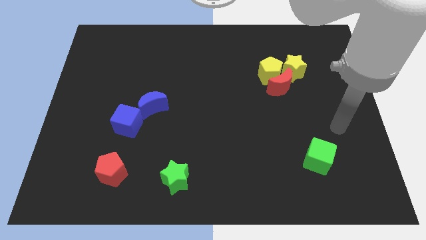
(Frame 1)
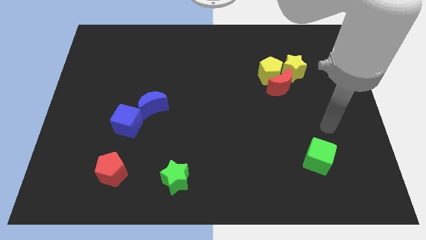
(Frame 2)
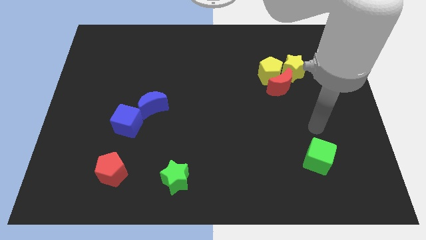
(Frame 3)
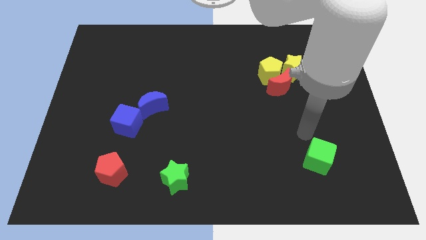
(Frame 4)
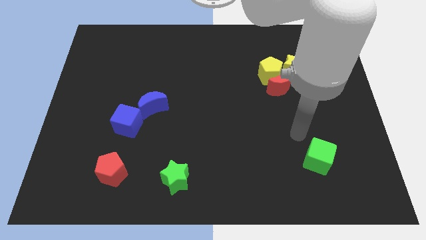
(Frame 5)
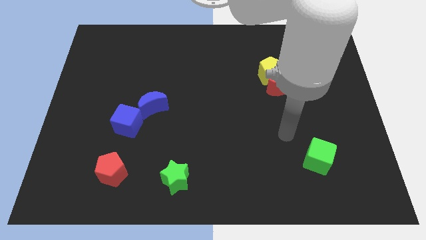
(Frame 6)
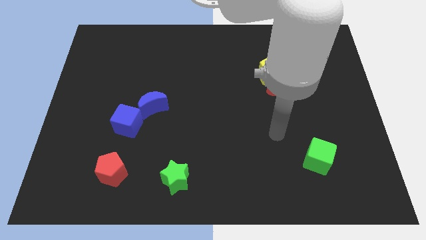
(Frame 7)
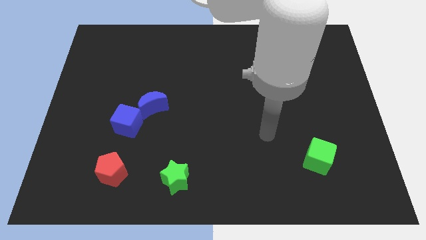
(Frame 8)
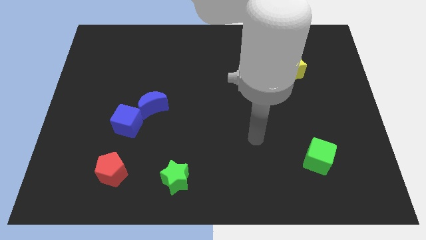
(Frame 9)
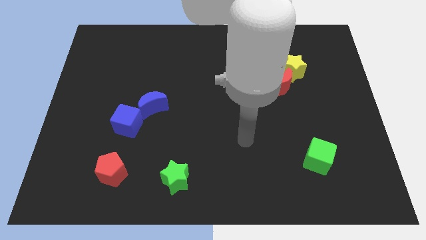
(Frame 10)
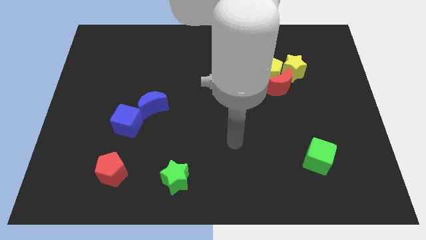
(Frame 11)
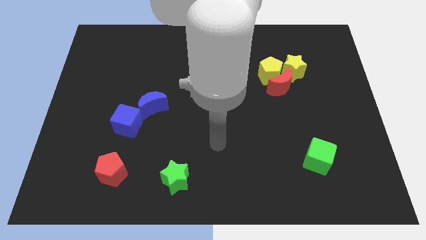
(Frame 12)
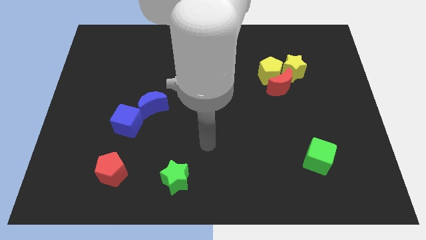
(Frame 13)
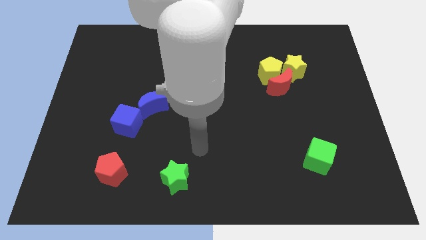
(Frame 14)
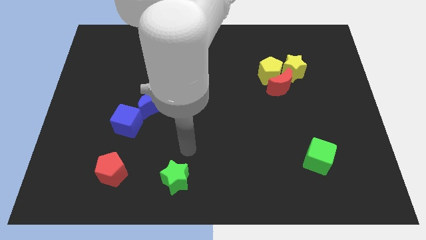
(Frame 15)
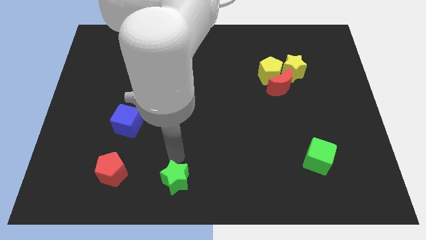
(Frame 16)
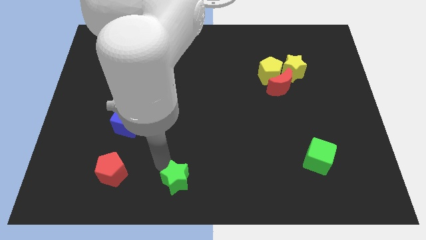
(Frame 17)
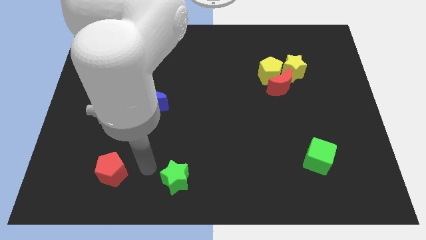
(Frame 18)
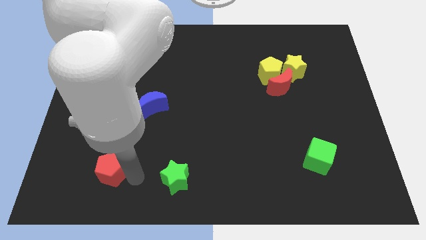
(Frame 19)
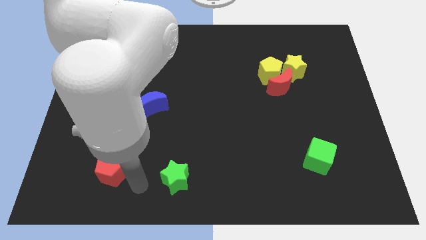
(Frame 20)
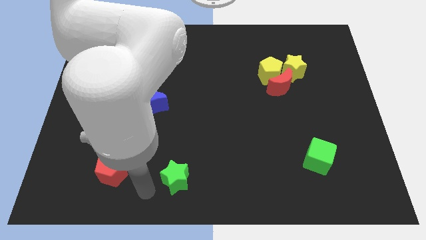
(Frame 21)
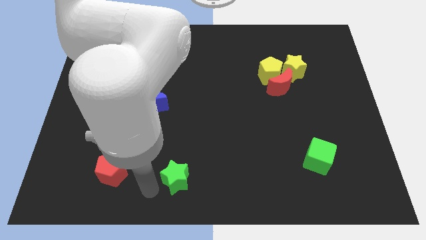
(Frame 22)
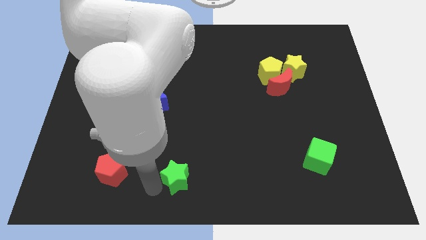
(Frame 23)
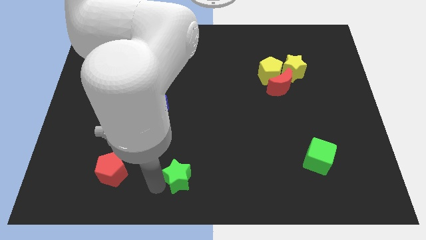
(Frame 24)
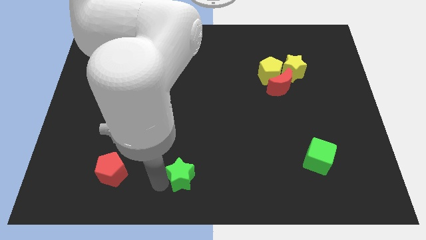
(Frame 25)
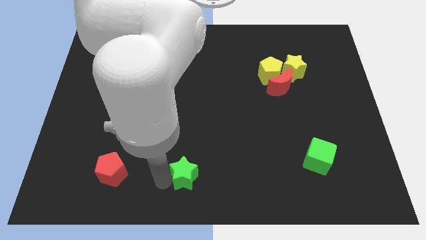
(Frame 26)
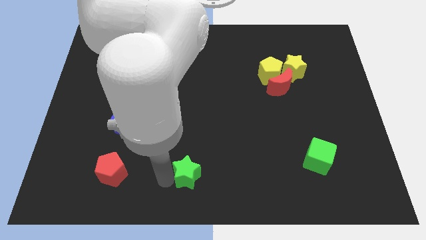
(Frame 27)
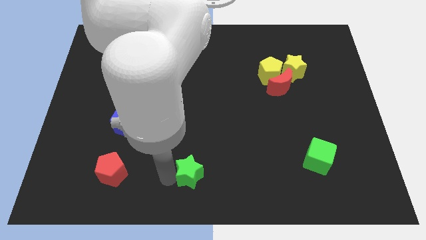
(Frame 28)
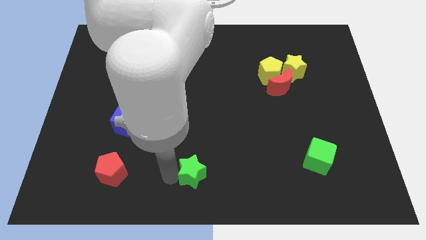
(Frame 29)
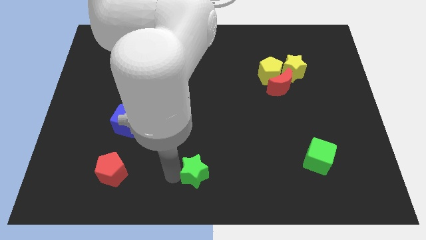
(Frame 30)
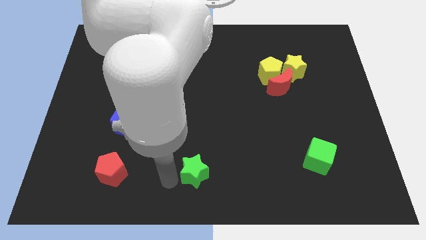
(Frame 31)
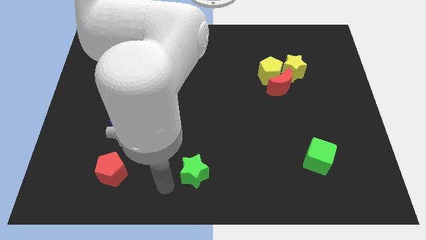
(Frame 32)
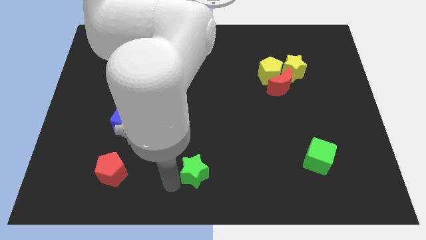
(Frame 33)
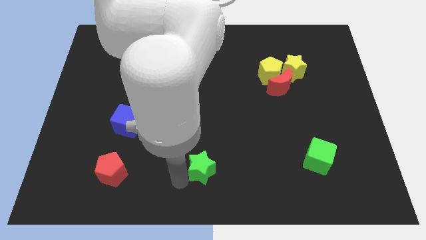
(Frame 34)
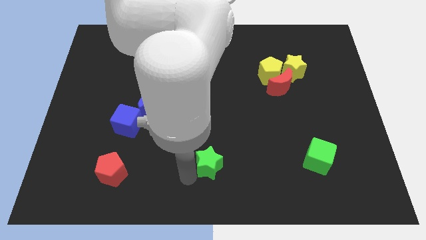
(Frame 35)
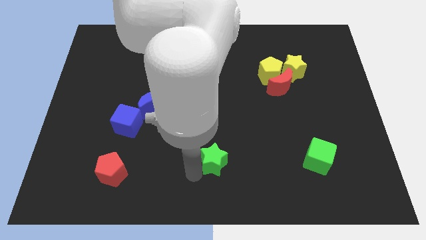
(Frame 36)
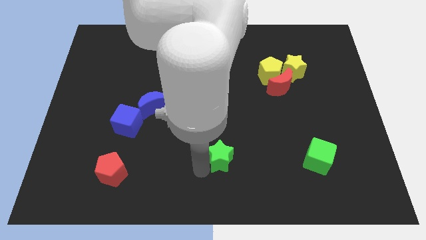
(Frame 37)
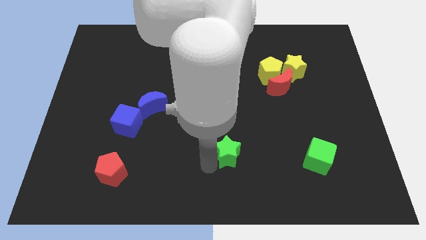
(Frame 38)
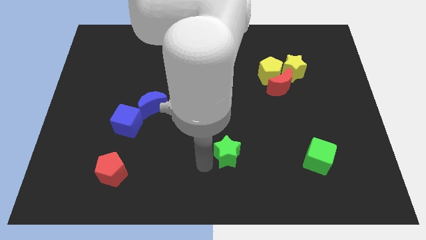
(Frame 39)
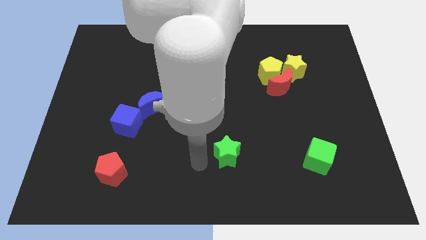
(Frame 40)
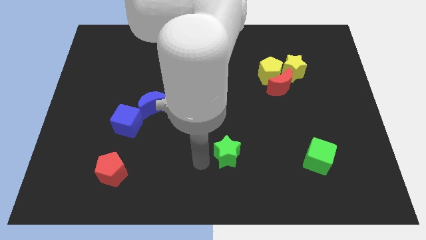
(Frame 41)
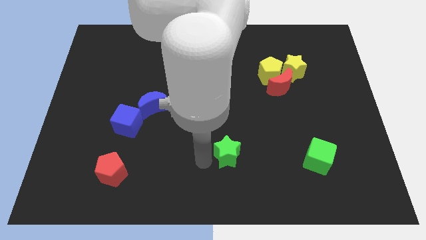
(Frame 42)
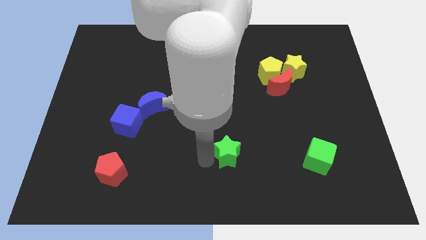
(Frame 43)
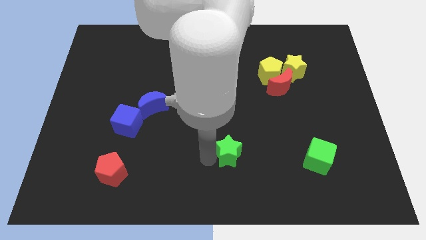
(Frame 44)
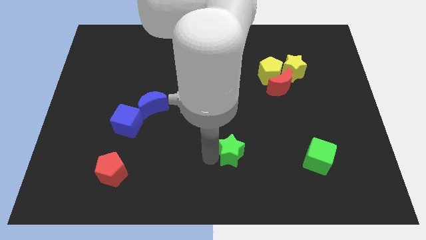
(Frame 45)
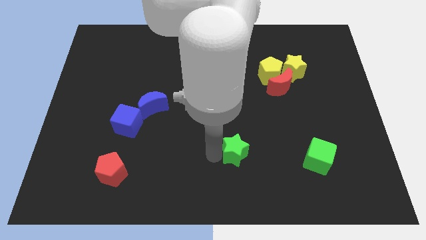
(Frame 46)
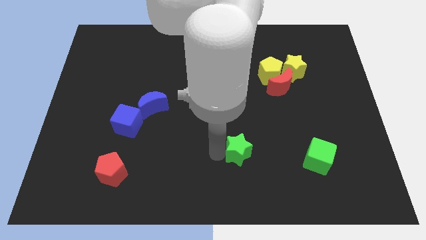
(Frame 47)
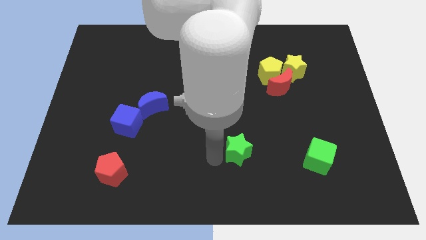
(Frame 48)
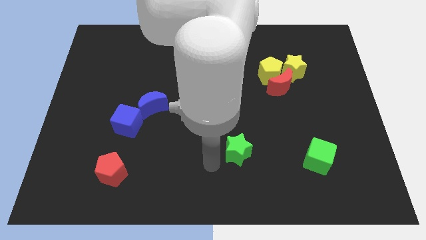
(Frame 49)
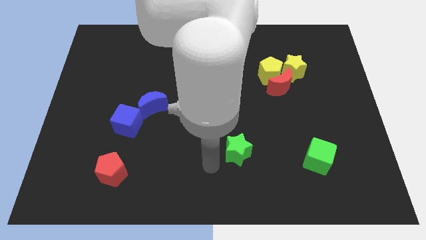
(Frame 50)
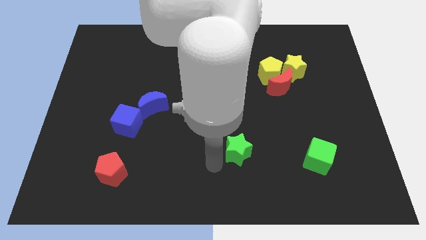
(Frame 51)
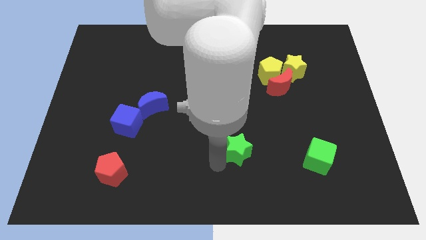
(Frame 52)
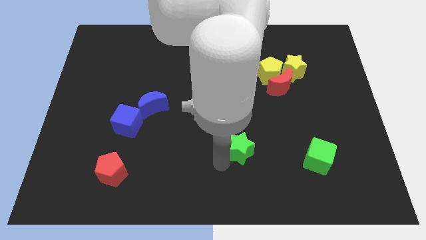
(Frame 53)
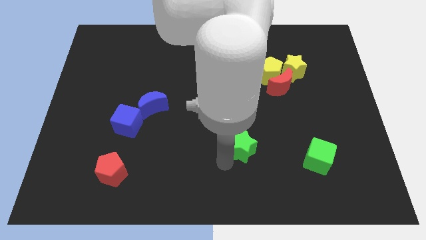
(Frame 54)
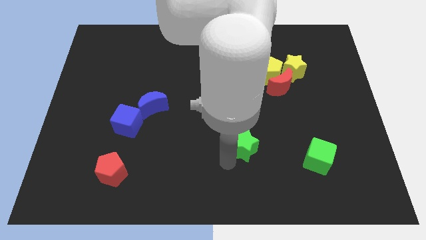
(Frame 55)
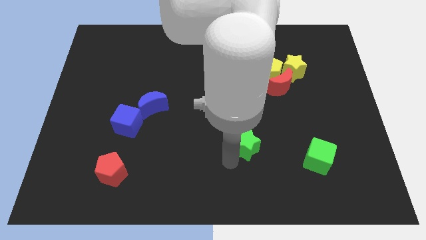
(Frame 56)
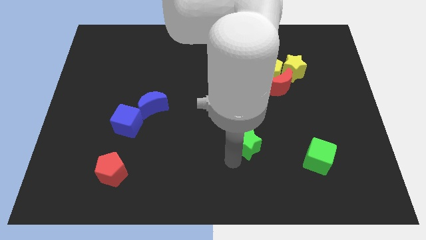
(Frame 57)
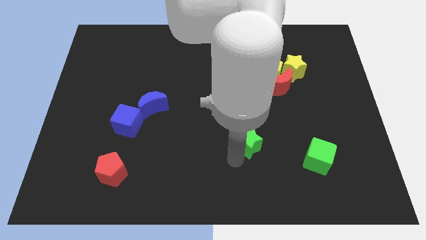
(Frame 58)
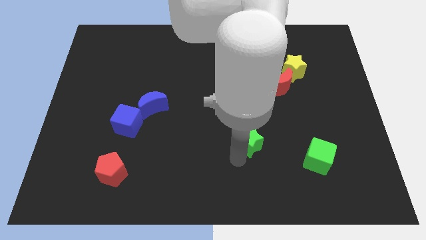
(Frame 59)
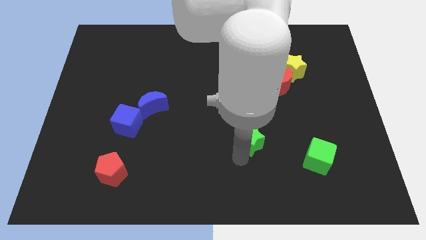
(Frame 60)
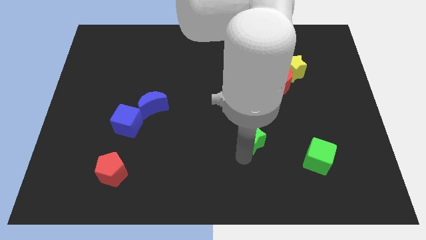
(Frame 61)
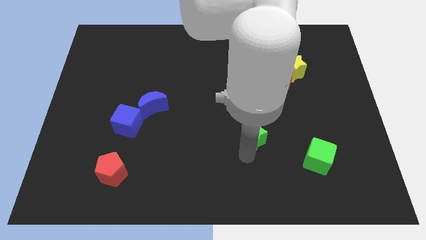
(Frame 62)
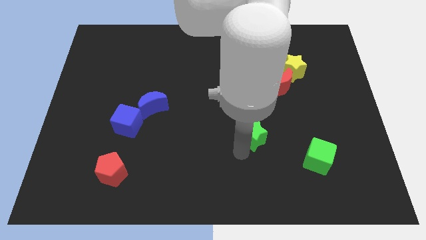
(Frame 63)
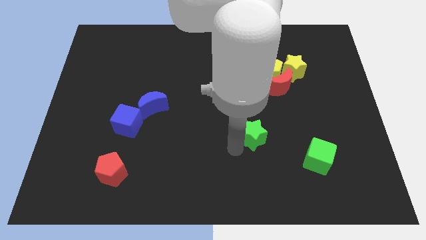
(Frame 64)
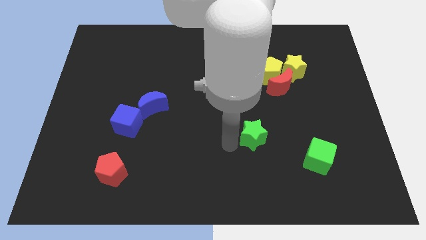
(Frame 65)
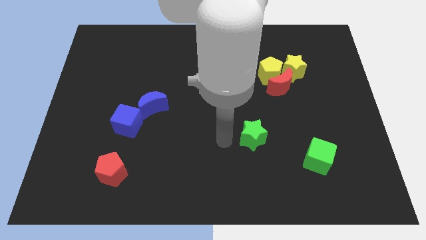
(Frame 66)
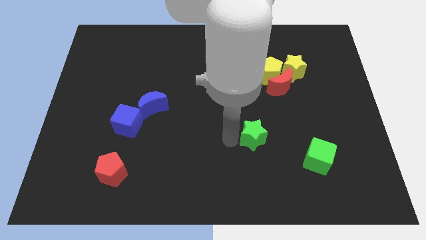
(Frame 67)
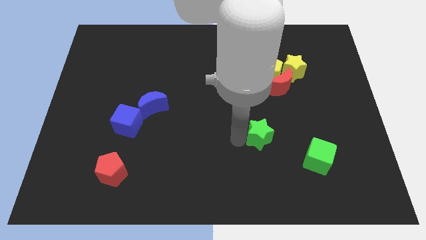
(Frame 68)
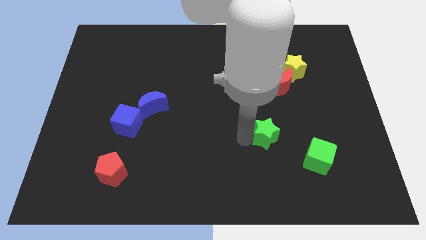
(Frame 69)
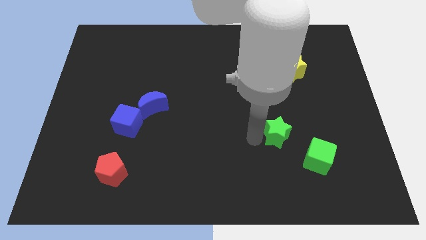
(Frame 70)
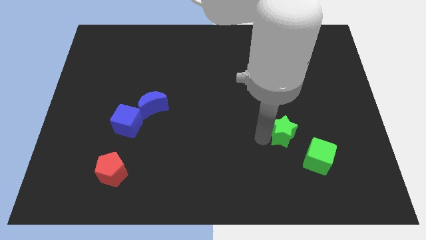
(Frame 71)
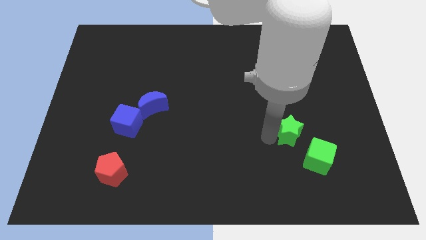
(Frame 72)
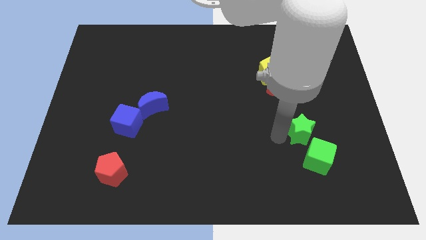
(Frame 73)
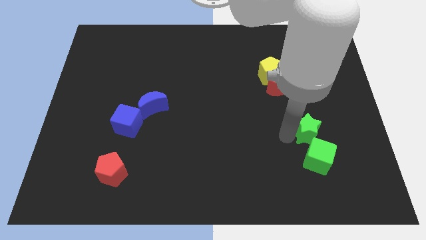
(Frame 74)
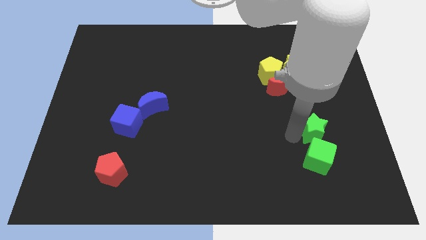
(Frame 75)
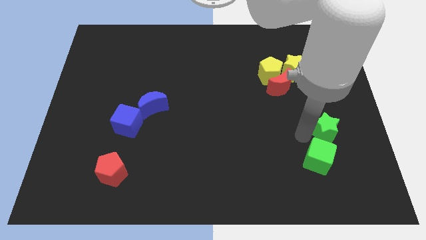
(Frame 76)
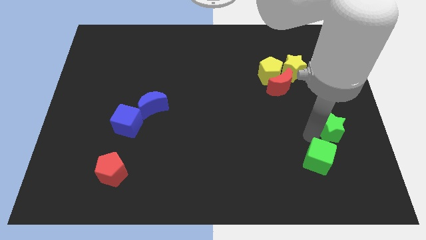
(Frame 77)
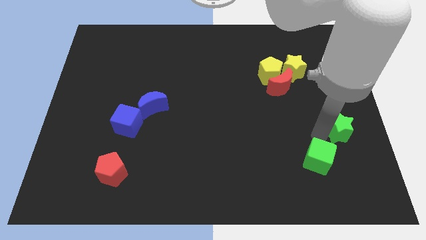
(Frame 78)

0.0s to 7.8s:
put the green star to the center right
